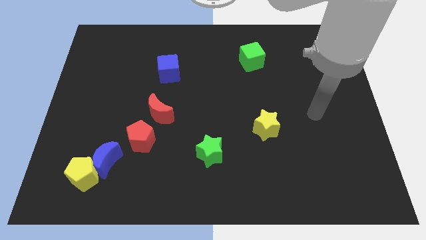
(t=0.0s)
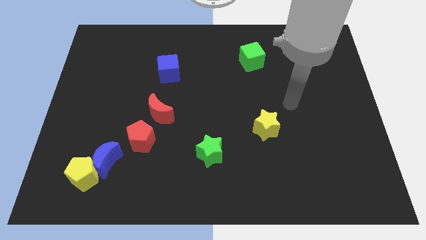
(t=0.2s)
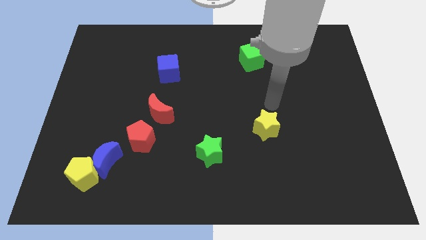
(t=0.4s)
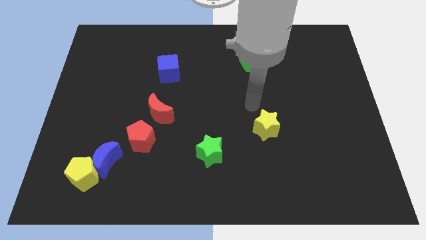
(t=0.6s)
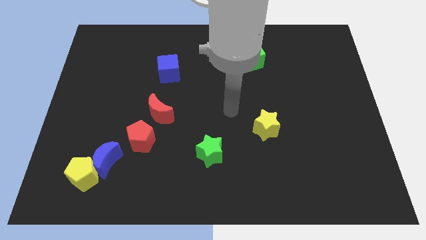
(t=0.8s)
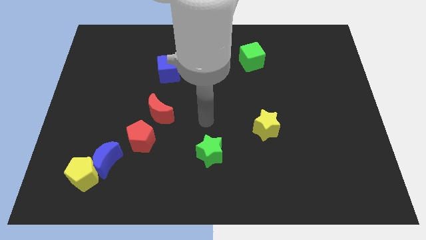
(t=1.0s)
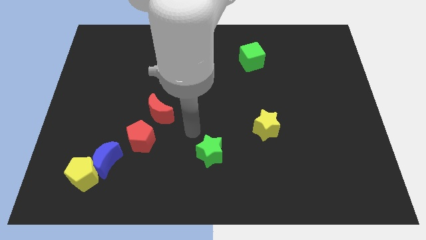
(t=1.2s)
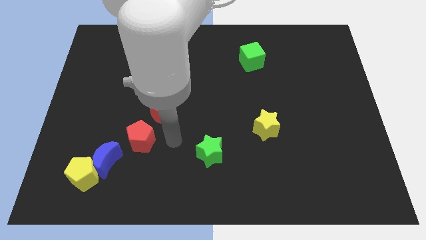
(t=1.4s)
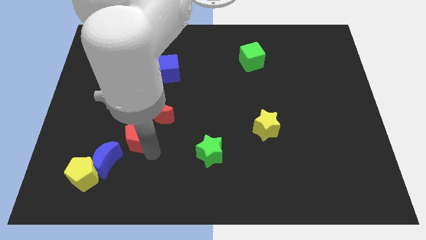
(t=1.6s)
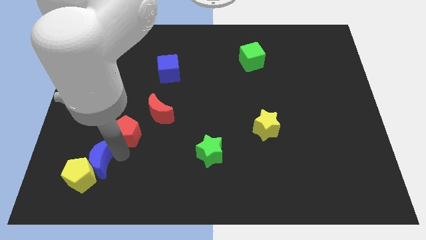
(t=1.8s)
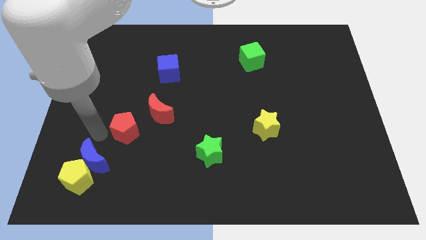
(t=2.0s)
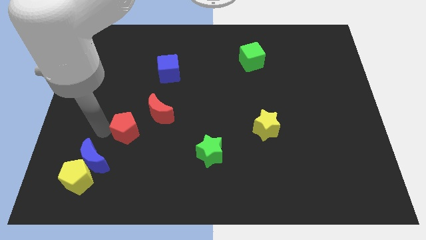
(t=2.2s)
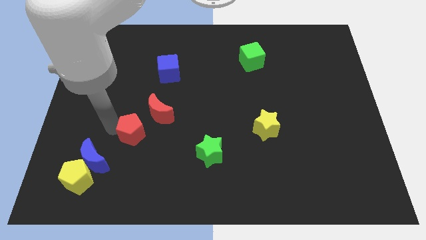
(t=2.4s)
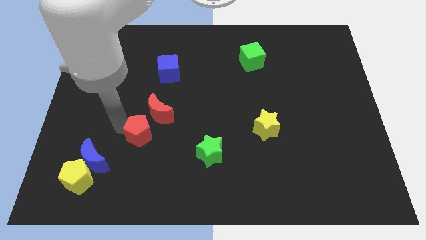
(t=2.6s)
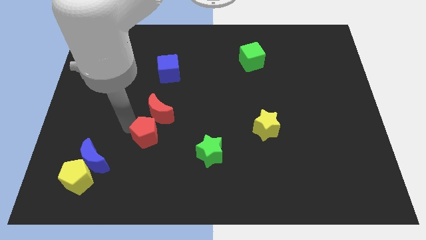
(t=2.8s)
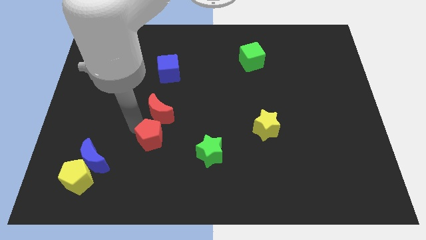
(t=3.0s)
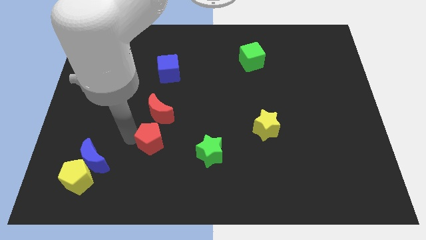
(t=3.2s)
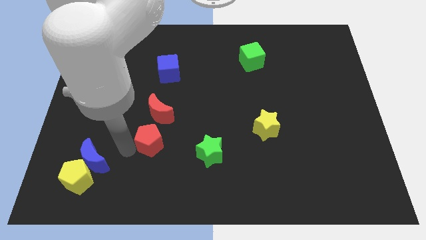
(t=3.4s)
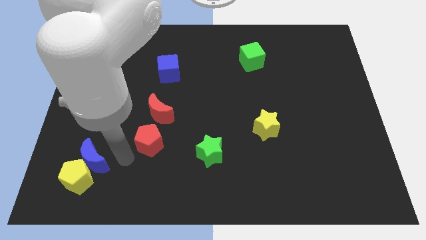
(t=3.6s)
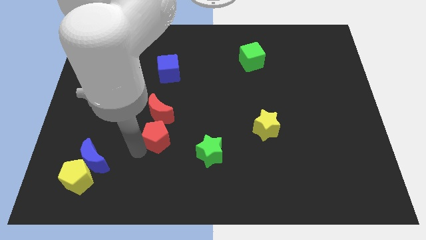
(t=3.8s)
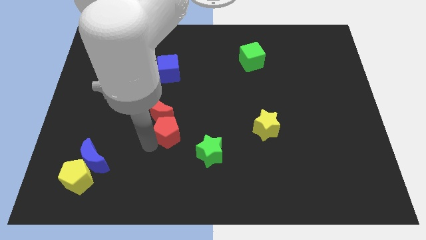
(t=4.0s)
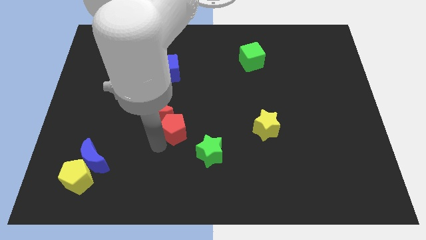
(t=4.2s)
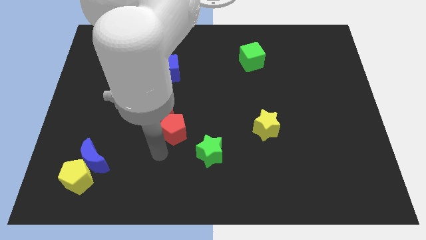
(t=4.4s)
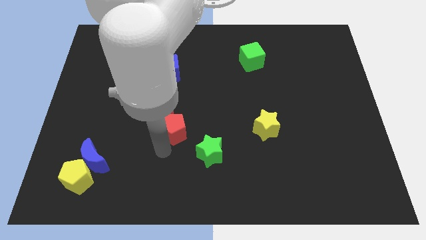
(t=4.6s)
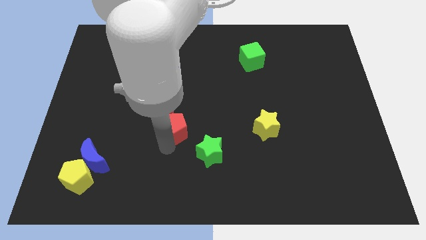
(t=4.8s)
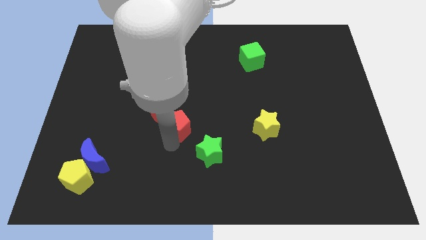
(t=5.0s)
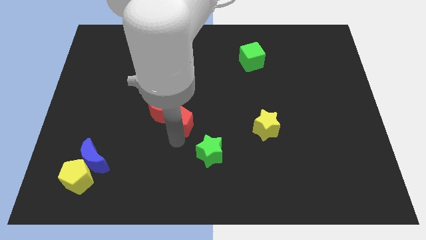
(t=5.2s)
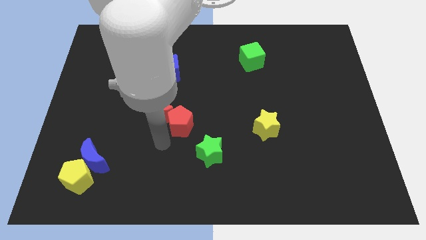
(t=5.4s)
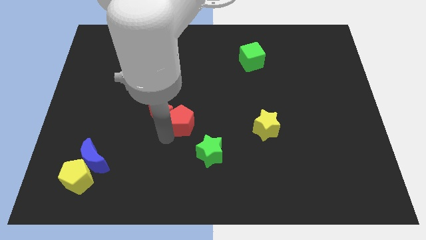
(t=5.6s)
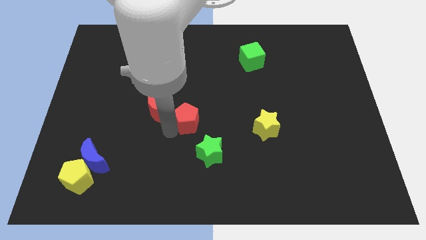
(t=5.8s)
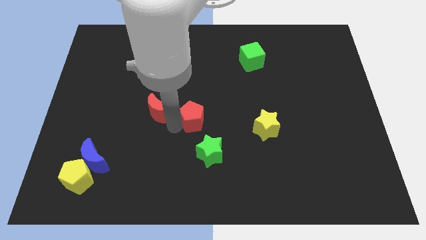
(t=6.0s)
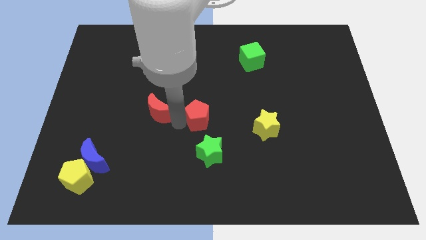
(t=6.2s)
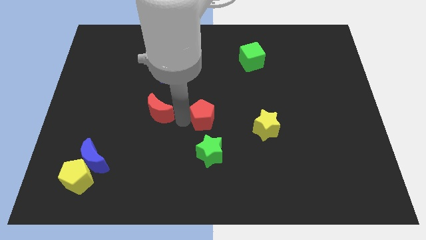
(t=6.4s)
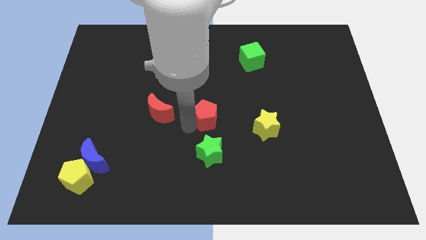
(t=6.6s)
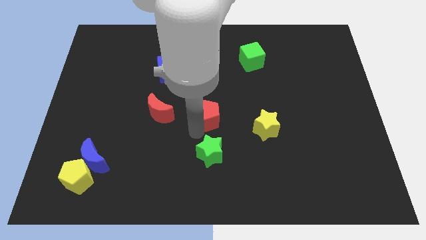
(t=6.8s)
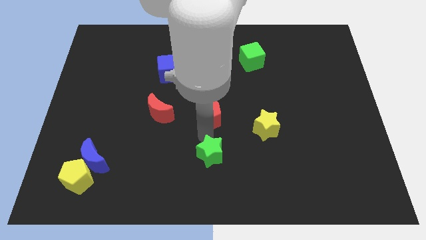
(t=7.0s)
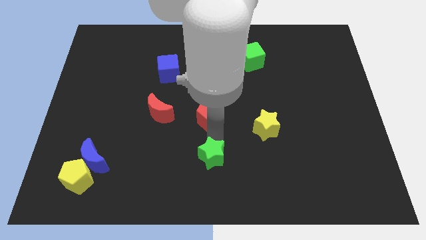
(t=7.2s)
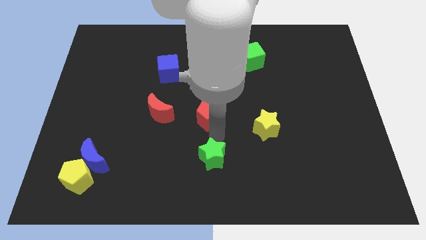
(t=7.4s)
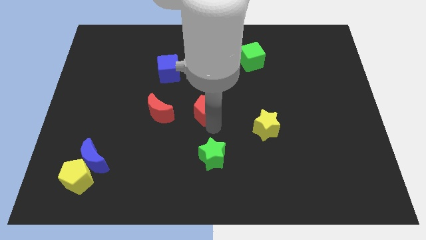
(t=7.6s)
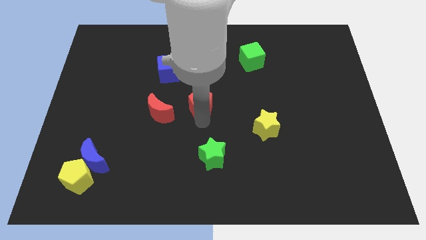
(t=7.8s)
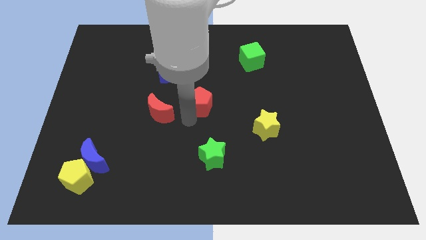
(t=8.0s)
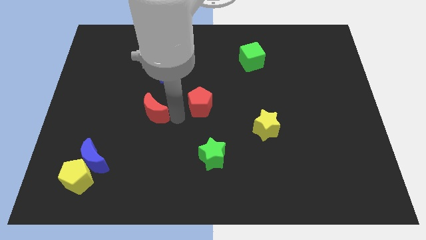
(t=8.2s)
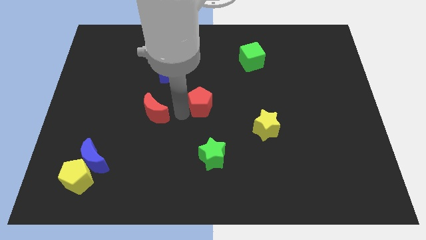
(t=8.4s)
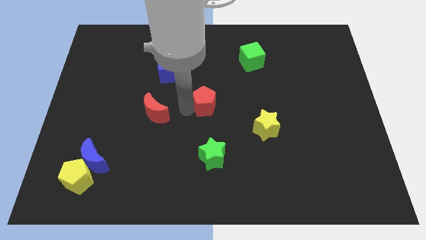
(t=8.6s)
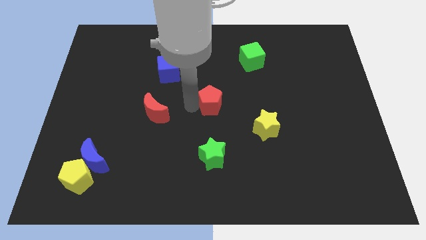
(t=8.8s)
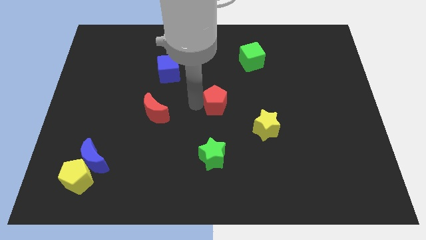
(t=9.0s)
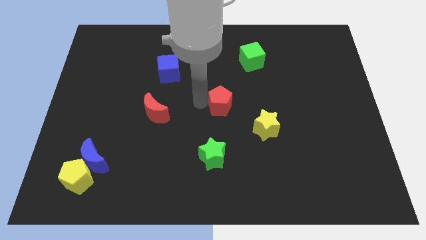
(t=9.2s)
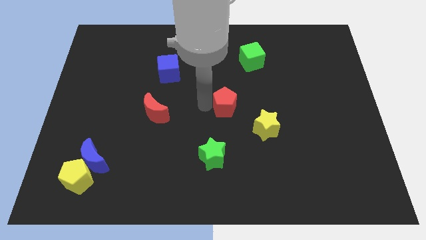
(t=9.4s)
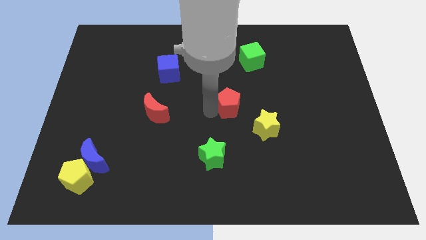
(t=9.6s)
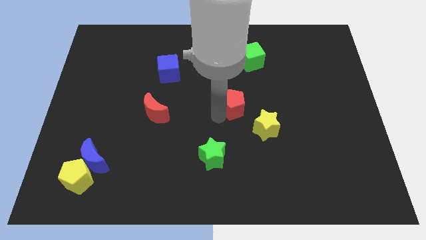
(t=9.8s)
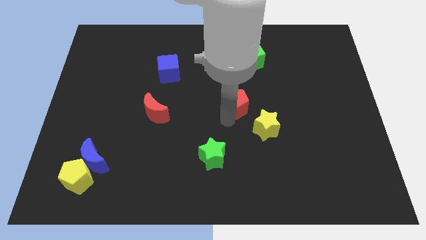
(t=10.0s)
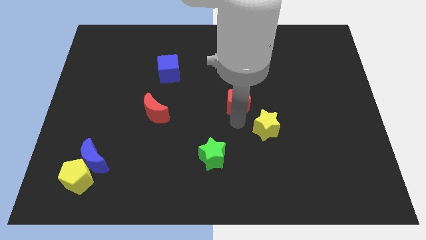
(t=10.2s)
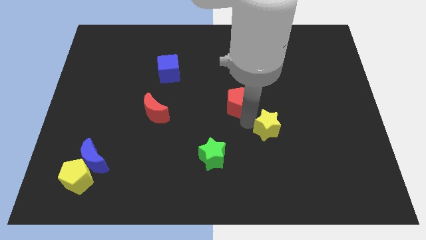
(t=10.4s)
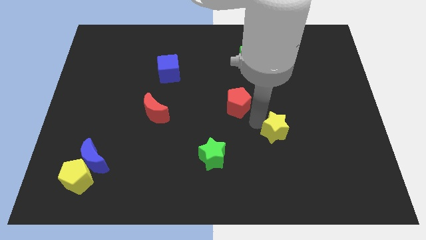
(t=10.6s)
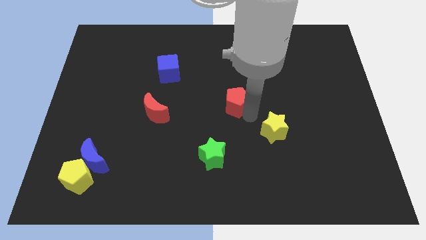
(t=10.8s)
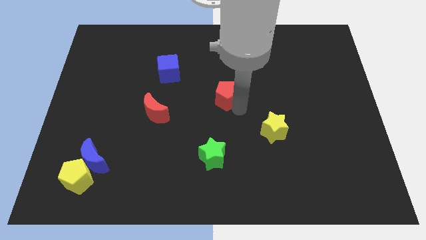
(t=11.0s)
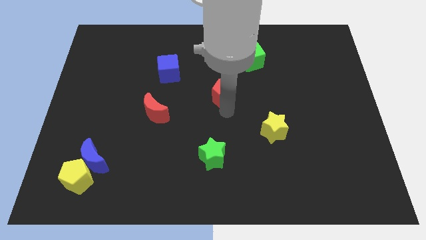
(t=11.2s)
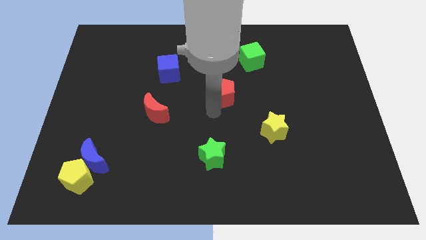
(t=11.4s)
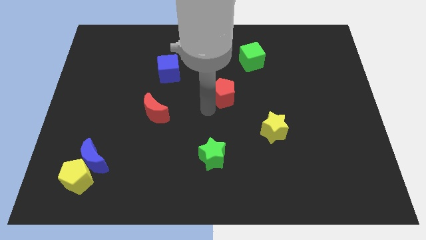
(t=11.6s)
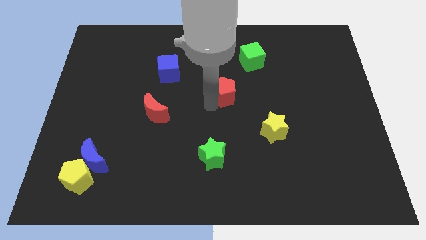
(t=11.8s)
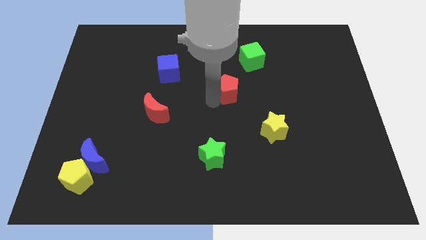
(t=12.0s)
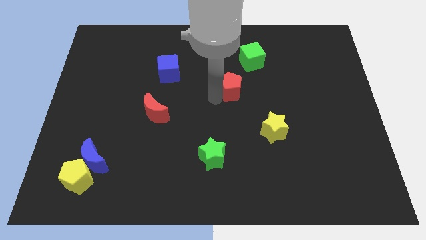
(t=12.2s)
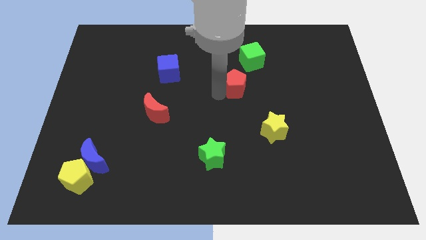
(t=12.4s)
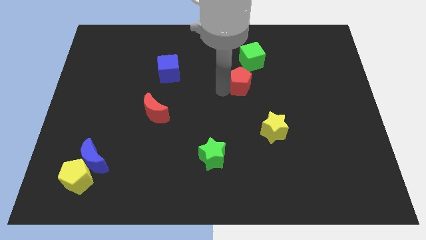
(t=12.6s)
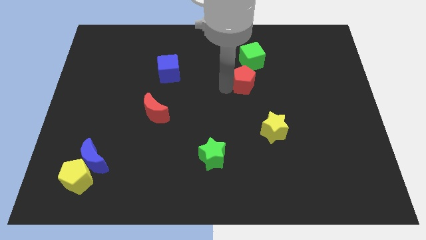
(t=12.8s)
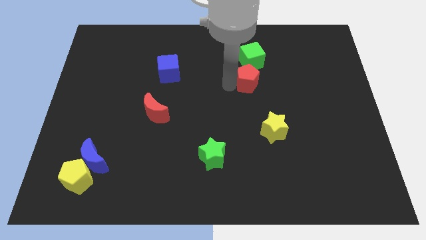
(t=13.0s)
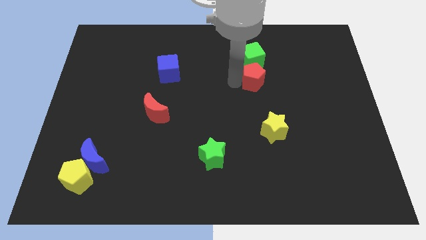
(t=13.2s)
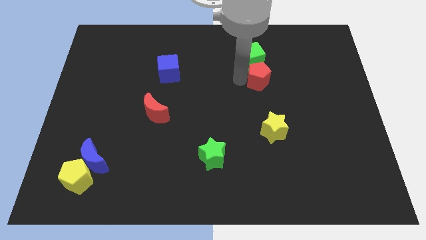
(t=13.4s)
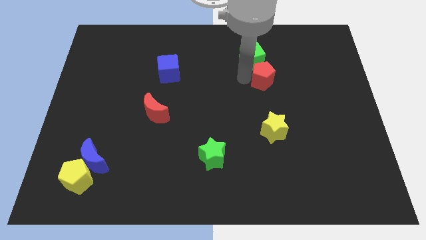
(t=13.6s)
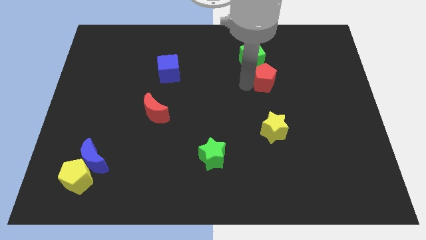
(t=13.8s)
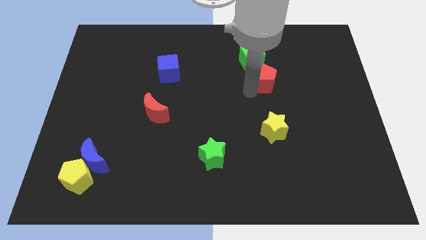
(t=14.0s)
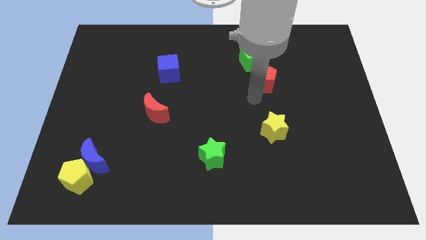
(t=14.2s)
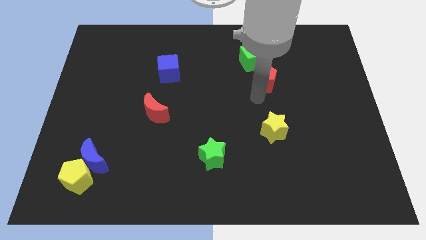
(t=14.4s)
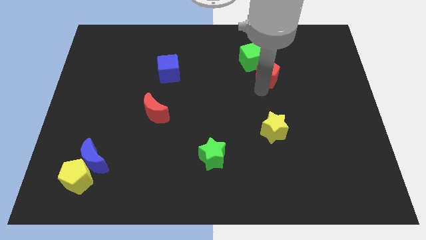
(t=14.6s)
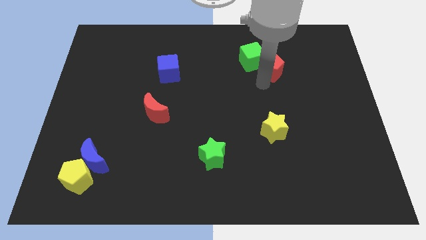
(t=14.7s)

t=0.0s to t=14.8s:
slide the red pentagon to the right of the green cube
